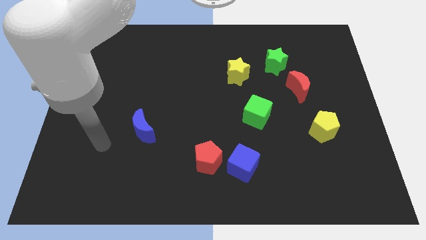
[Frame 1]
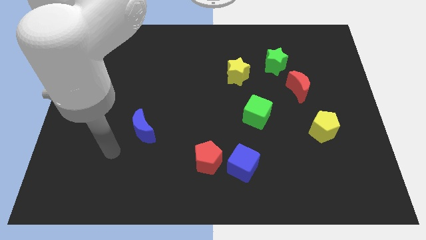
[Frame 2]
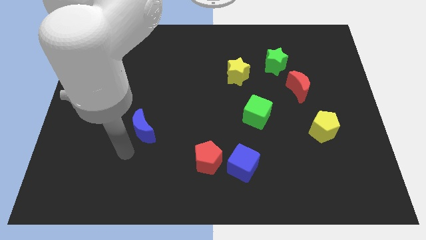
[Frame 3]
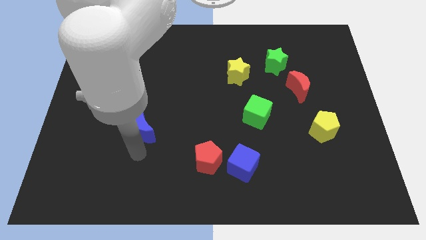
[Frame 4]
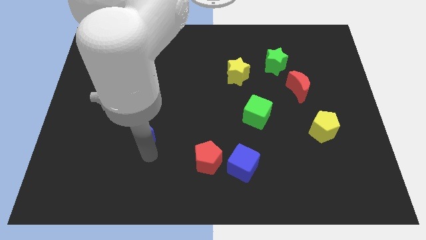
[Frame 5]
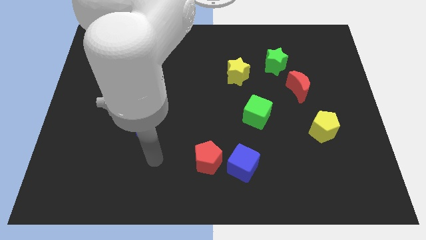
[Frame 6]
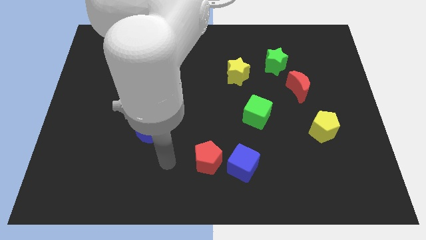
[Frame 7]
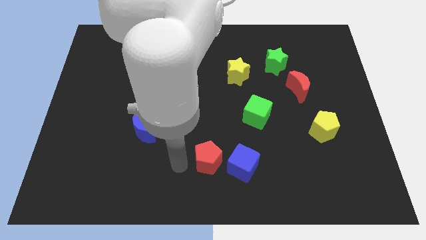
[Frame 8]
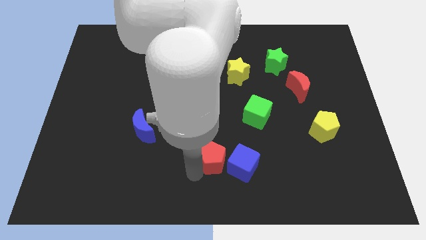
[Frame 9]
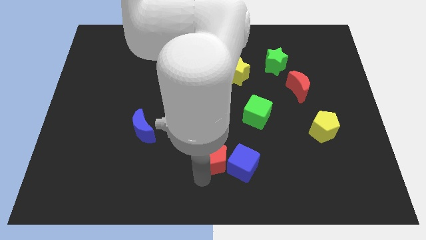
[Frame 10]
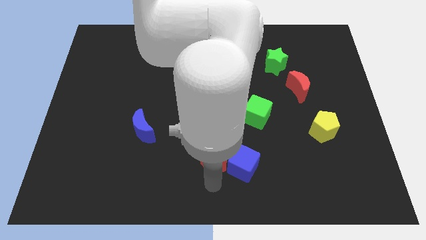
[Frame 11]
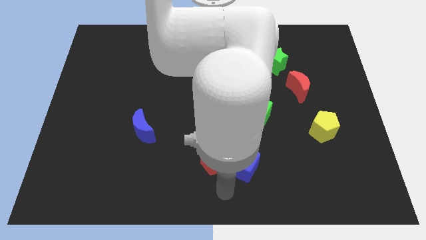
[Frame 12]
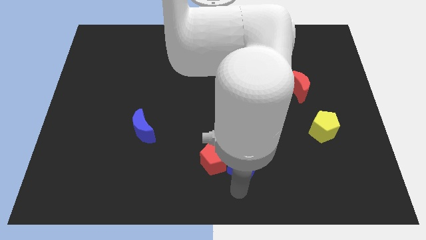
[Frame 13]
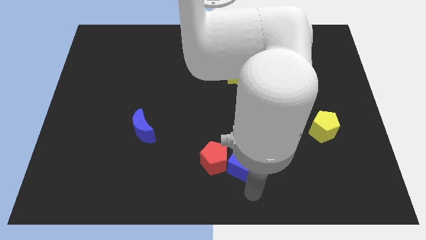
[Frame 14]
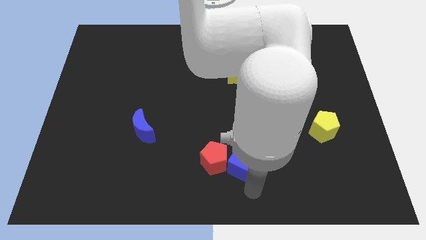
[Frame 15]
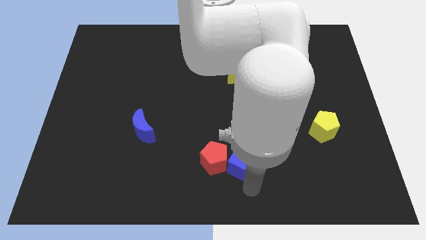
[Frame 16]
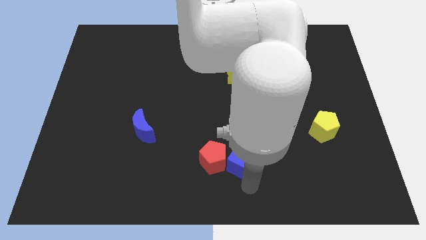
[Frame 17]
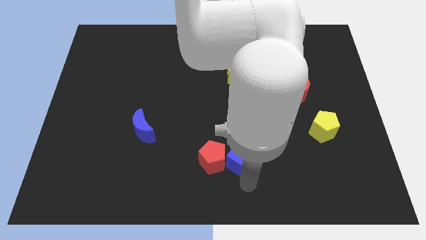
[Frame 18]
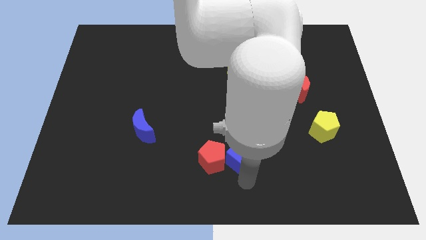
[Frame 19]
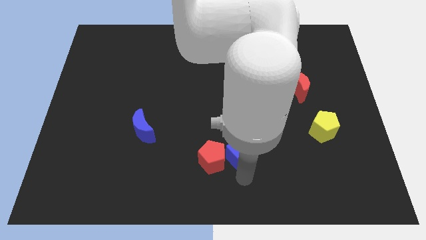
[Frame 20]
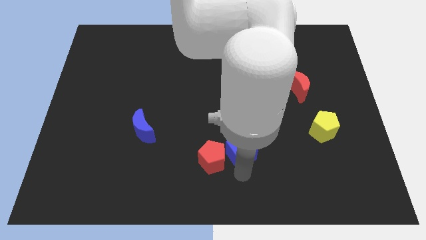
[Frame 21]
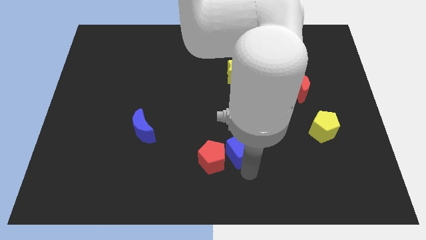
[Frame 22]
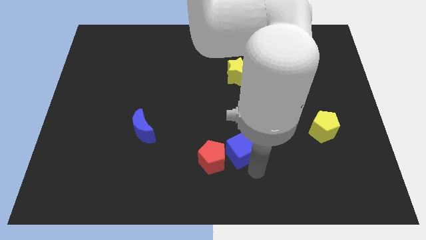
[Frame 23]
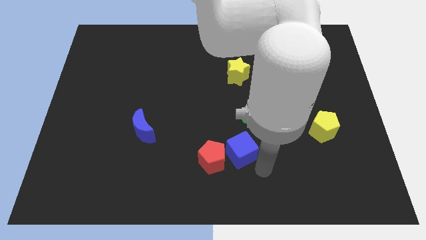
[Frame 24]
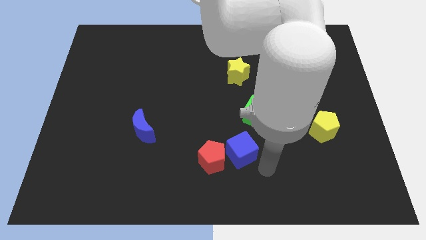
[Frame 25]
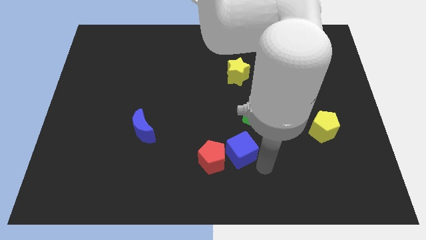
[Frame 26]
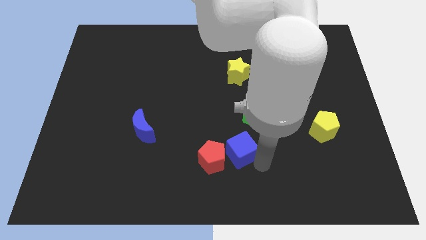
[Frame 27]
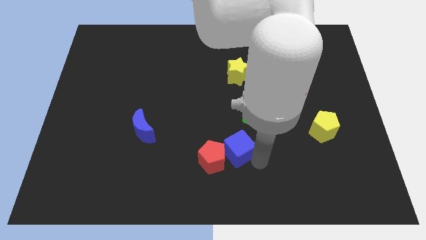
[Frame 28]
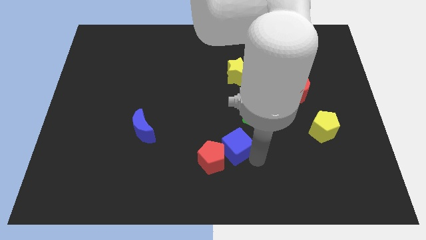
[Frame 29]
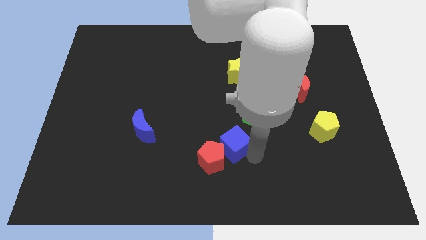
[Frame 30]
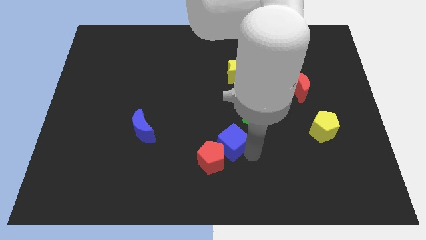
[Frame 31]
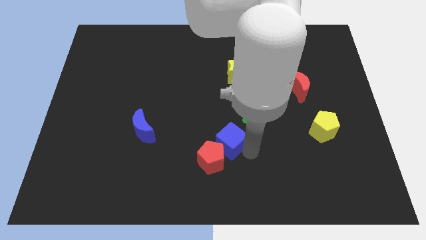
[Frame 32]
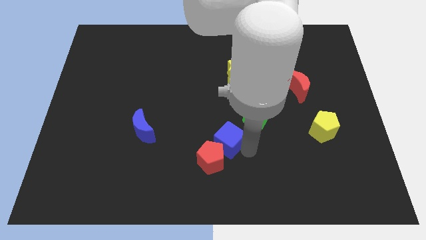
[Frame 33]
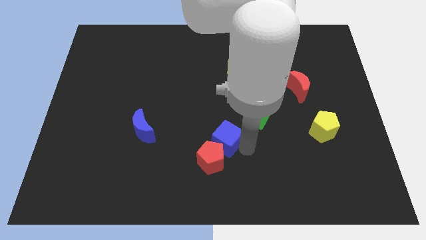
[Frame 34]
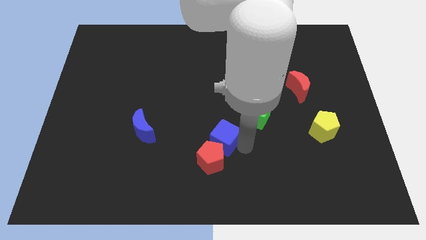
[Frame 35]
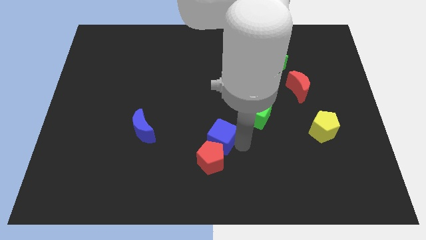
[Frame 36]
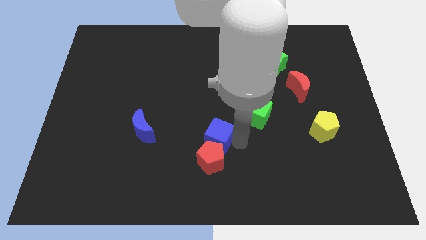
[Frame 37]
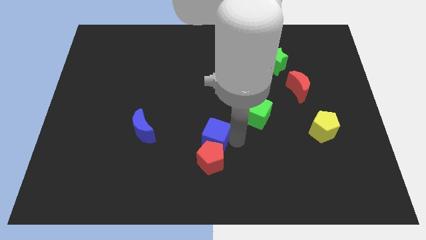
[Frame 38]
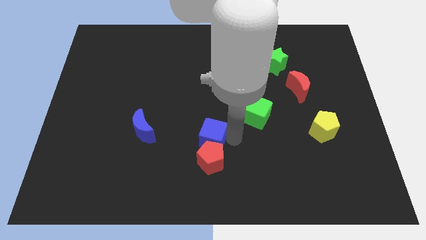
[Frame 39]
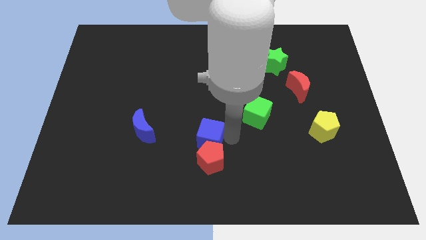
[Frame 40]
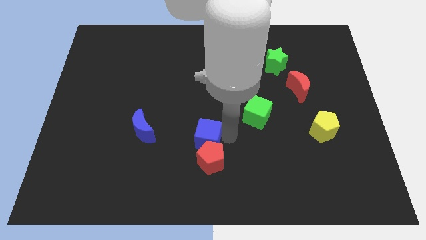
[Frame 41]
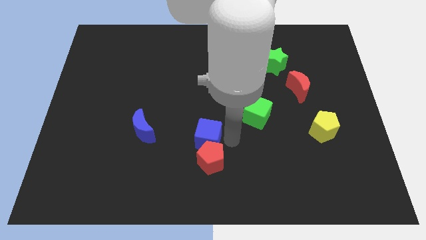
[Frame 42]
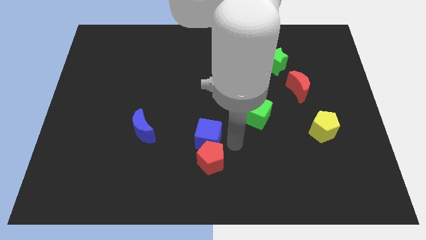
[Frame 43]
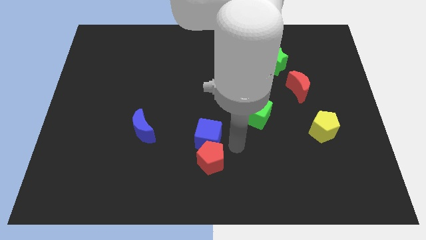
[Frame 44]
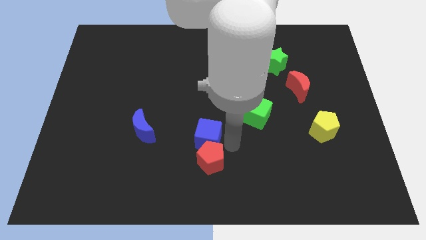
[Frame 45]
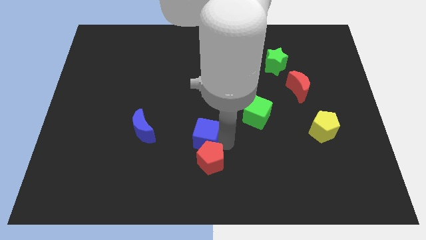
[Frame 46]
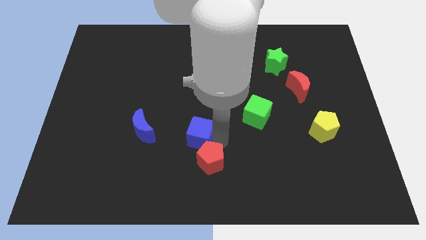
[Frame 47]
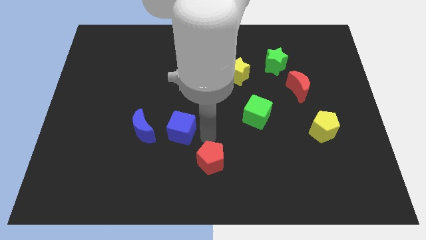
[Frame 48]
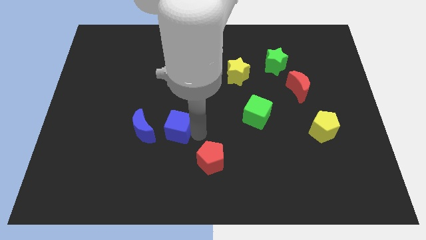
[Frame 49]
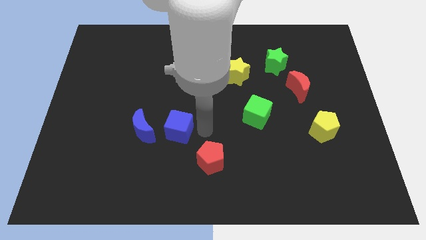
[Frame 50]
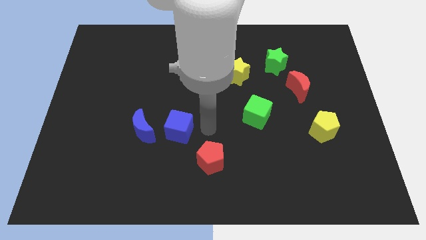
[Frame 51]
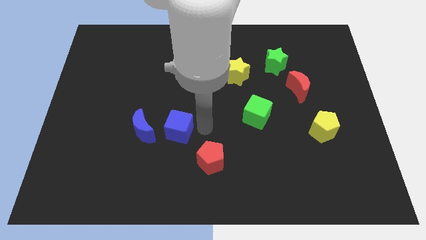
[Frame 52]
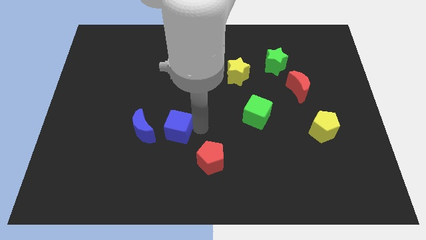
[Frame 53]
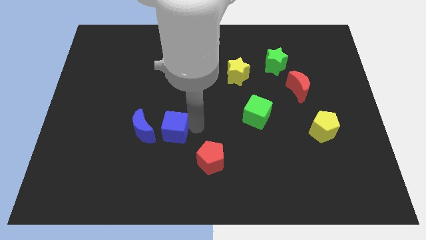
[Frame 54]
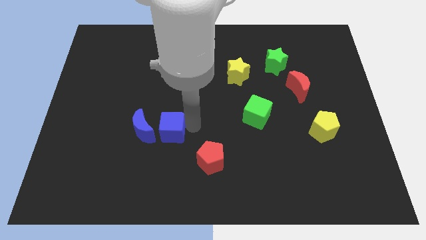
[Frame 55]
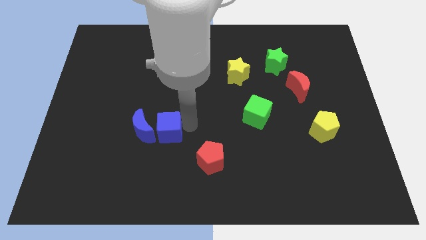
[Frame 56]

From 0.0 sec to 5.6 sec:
push the blue cube close to the blue moon

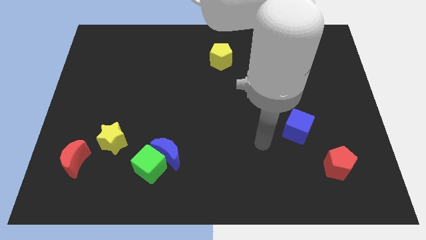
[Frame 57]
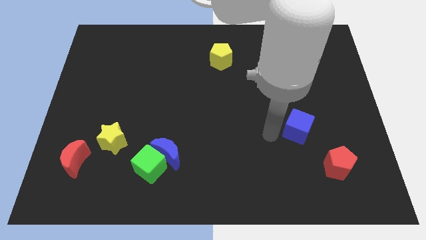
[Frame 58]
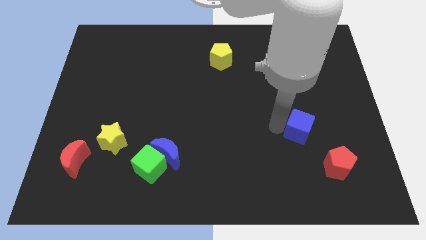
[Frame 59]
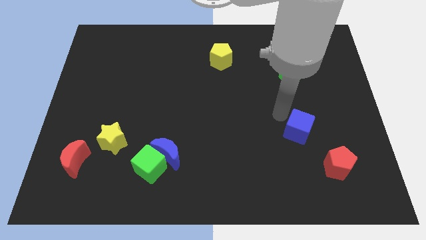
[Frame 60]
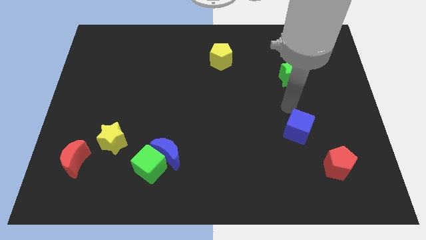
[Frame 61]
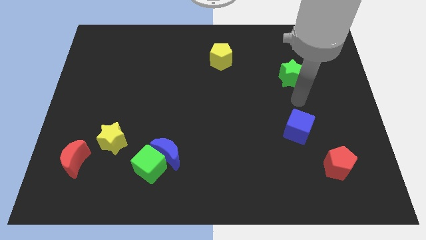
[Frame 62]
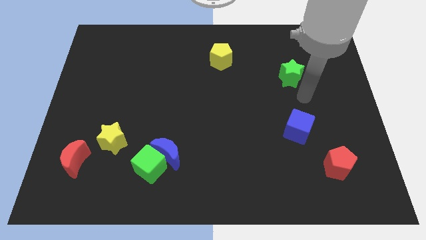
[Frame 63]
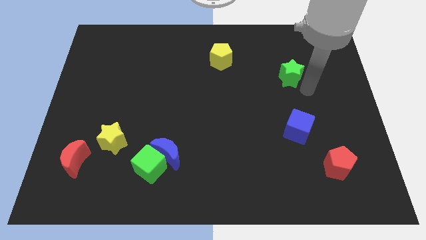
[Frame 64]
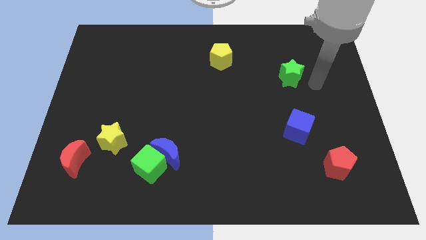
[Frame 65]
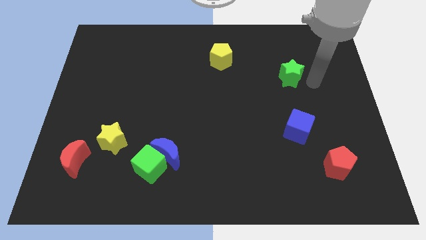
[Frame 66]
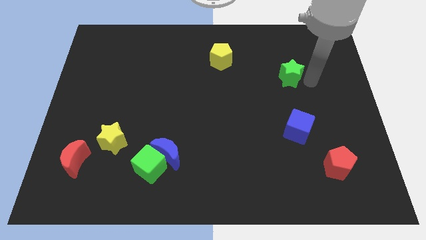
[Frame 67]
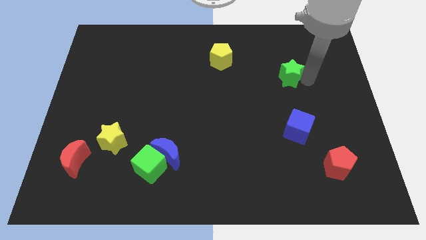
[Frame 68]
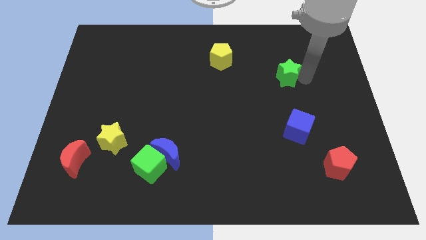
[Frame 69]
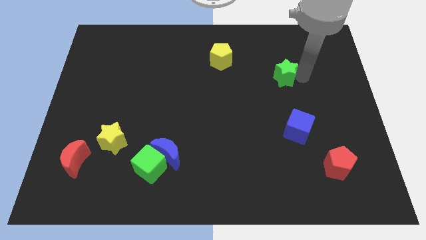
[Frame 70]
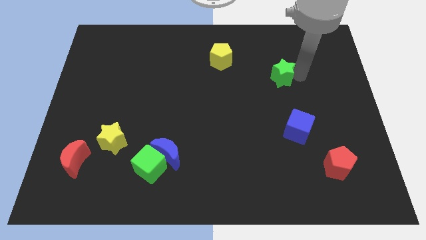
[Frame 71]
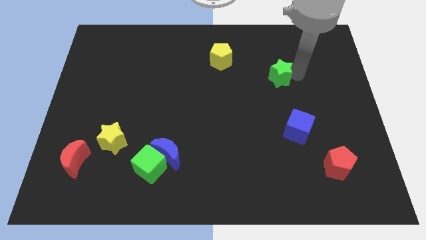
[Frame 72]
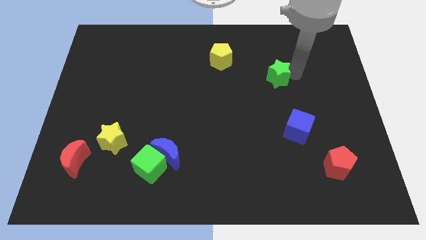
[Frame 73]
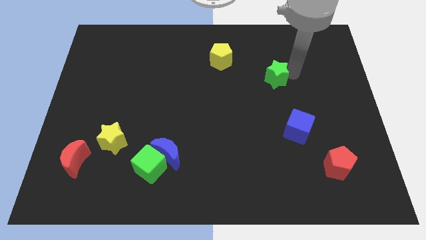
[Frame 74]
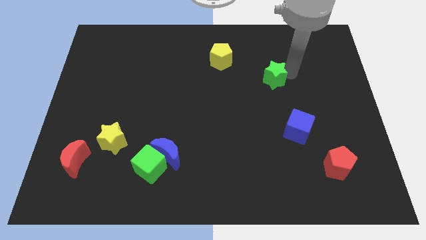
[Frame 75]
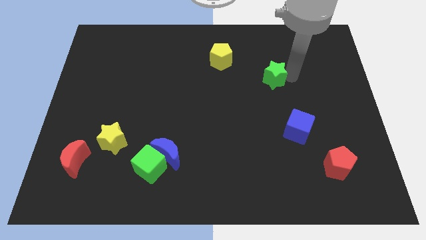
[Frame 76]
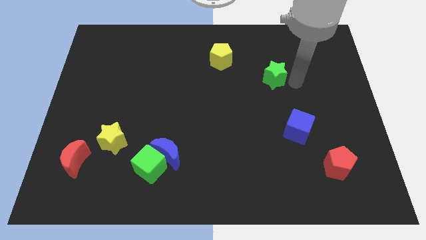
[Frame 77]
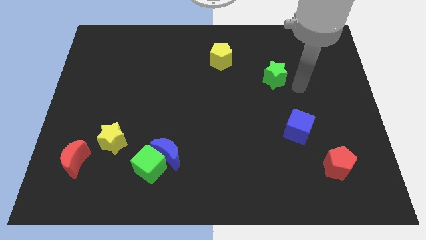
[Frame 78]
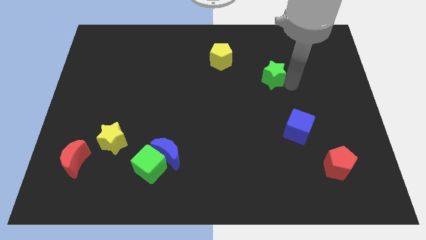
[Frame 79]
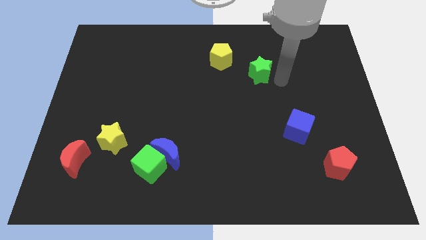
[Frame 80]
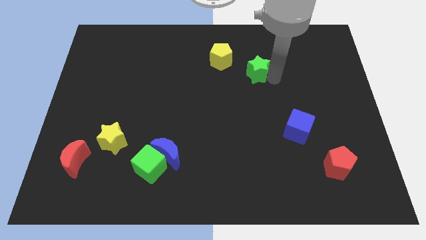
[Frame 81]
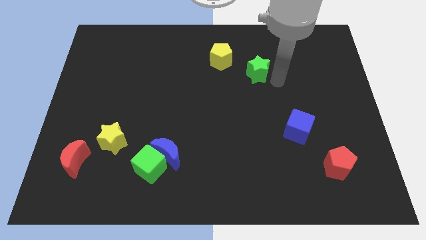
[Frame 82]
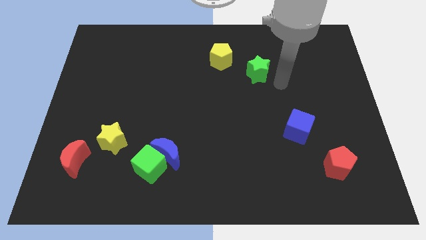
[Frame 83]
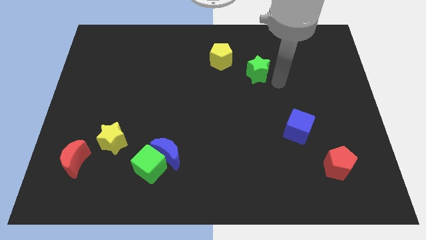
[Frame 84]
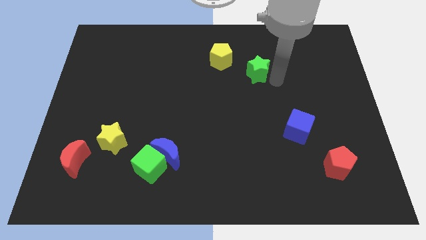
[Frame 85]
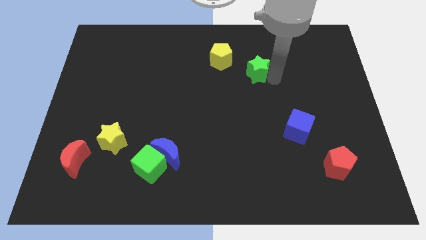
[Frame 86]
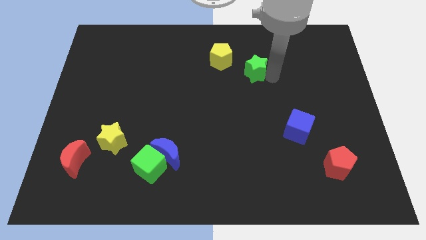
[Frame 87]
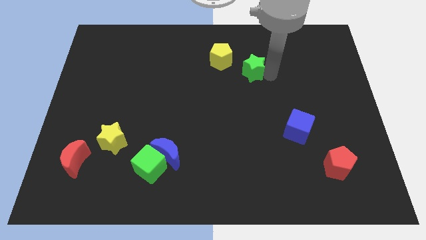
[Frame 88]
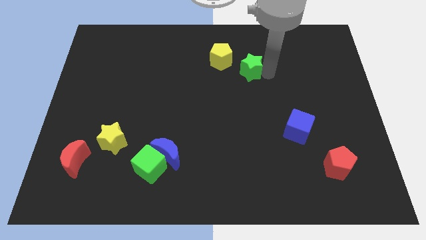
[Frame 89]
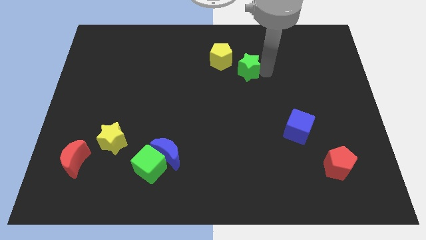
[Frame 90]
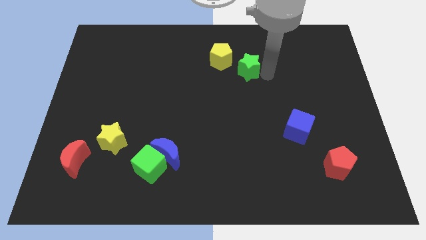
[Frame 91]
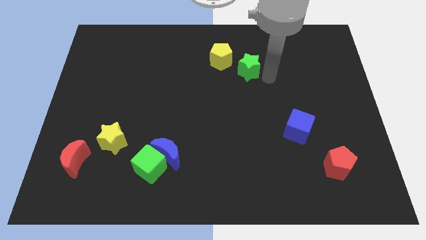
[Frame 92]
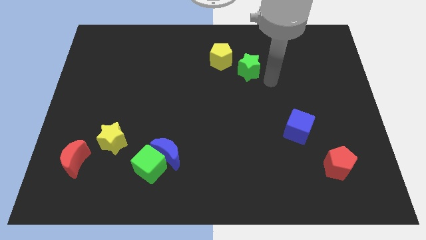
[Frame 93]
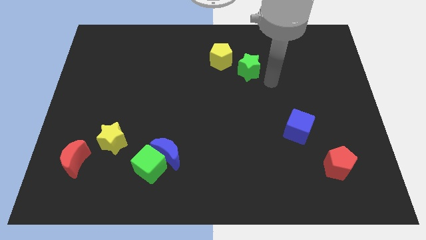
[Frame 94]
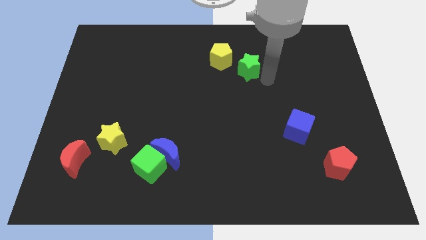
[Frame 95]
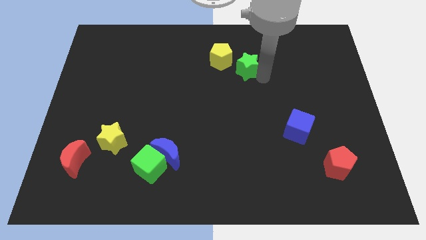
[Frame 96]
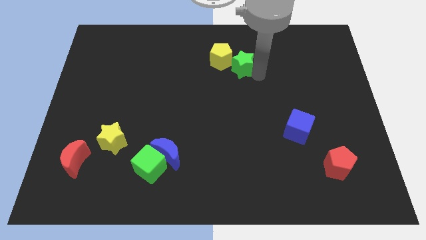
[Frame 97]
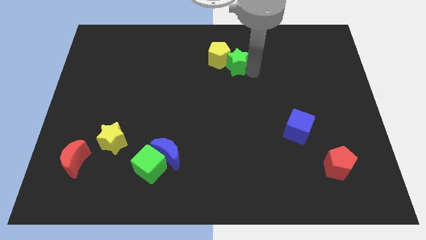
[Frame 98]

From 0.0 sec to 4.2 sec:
slide the green star next to the yellow pentagon
